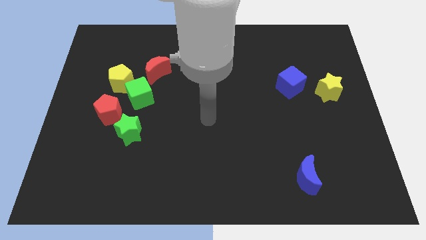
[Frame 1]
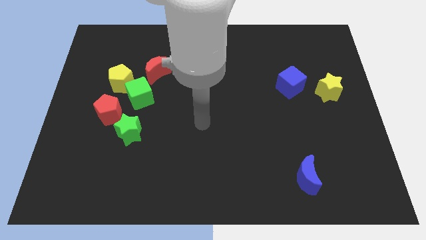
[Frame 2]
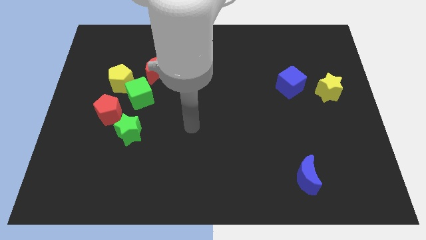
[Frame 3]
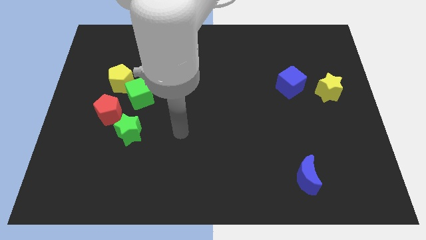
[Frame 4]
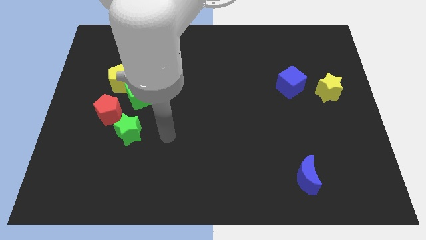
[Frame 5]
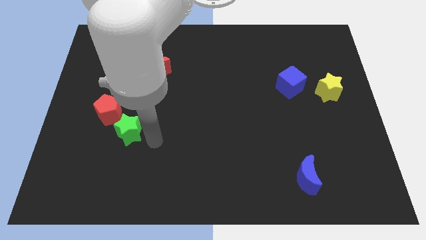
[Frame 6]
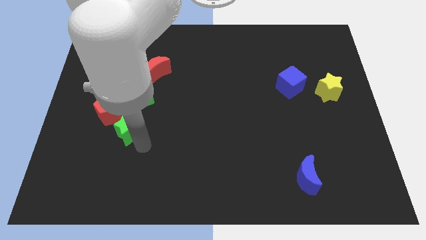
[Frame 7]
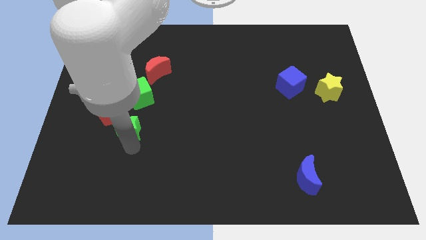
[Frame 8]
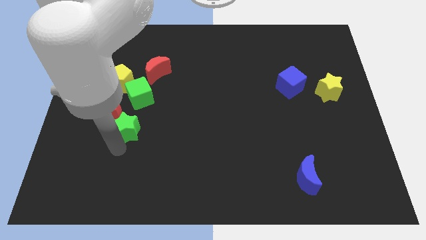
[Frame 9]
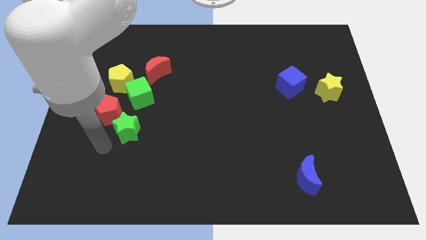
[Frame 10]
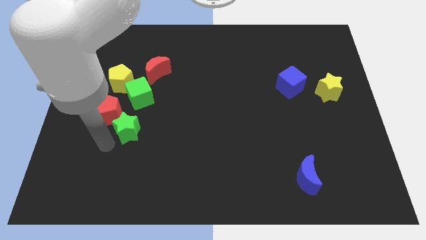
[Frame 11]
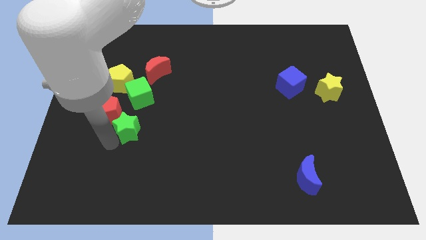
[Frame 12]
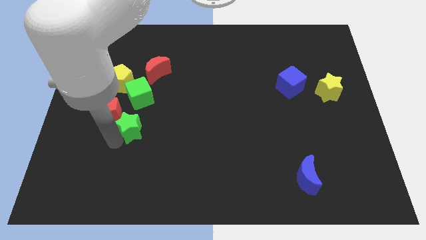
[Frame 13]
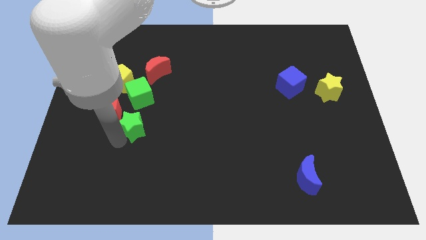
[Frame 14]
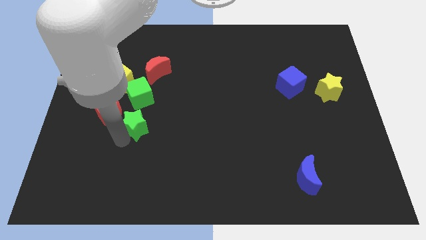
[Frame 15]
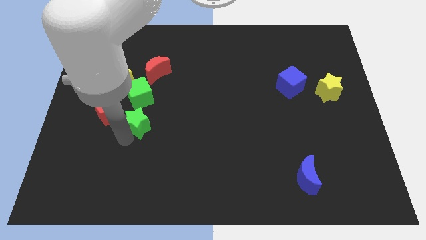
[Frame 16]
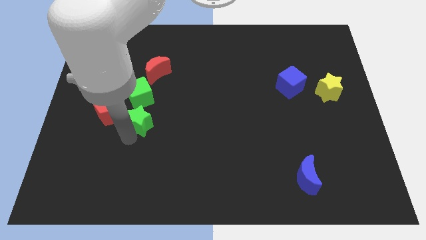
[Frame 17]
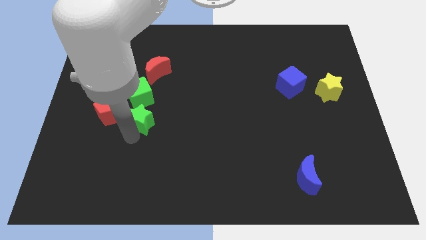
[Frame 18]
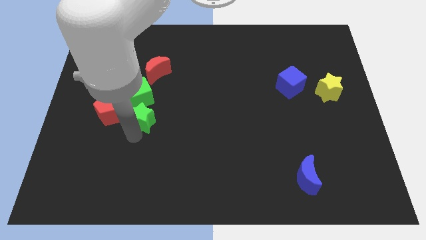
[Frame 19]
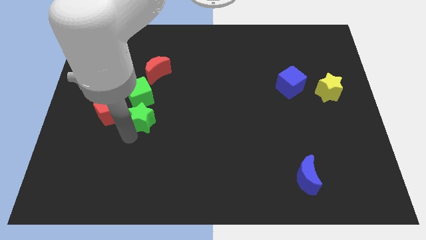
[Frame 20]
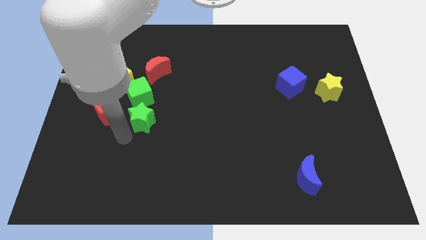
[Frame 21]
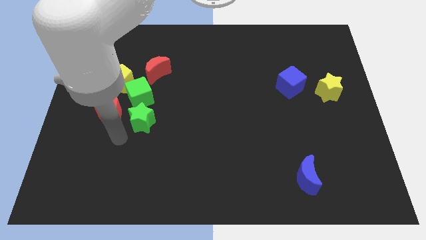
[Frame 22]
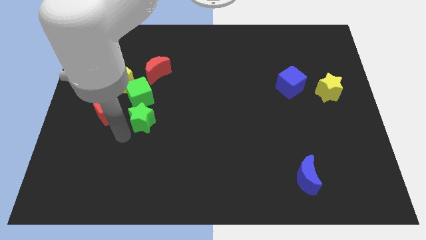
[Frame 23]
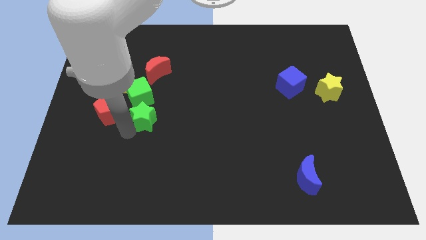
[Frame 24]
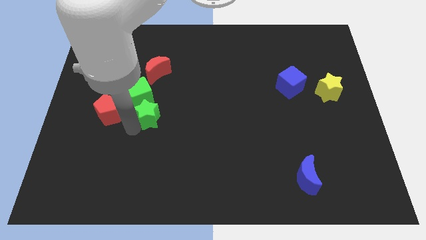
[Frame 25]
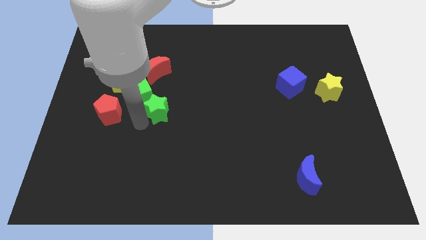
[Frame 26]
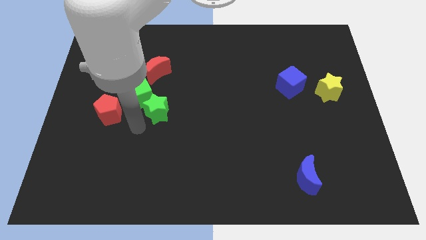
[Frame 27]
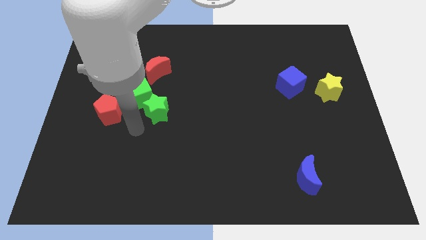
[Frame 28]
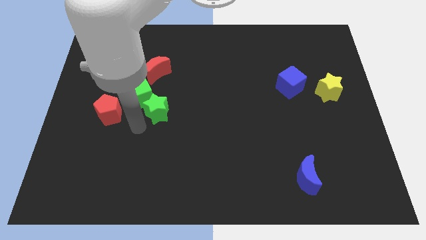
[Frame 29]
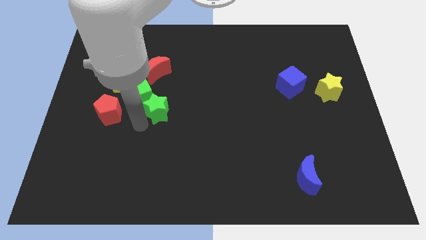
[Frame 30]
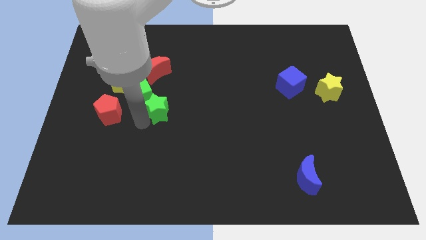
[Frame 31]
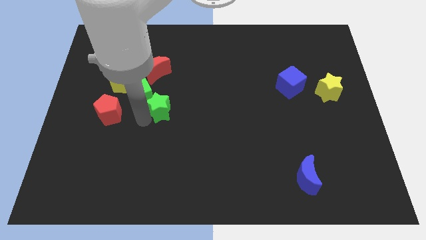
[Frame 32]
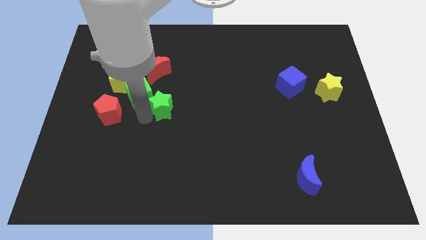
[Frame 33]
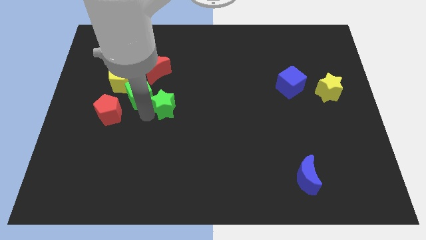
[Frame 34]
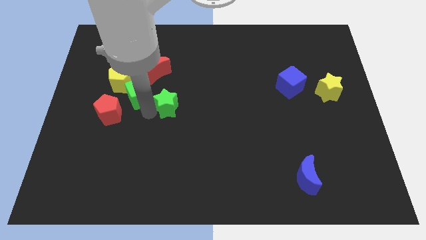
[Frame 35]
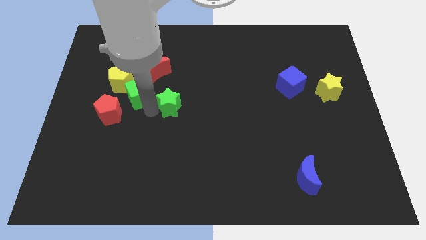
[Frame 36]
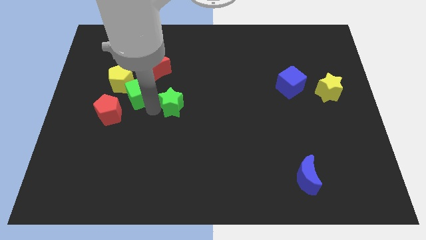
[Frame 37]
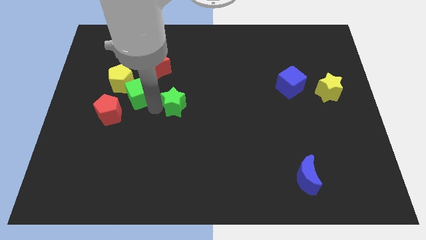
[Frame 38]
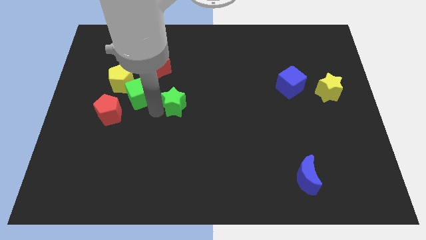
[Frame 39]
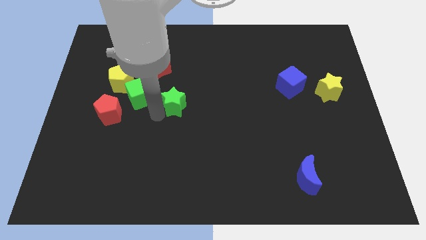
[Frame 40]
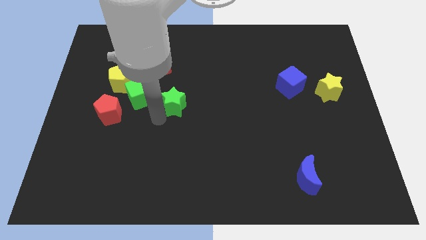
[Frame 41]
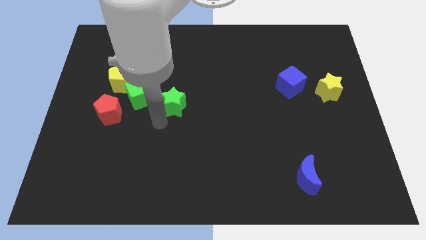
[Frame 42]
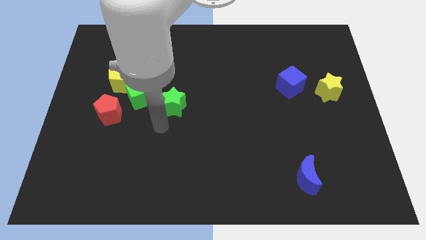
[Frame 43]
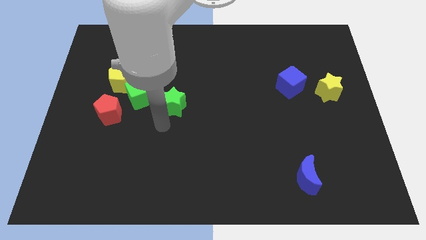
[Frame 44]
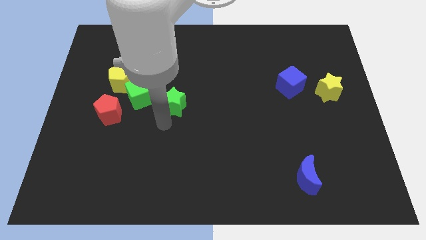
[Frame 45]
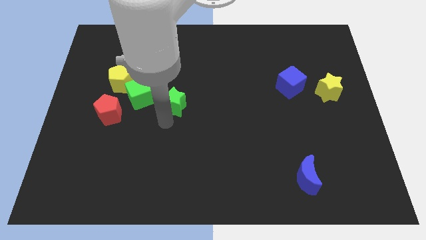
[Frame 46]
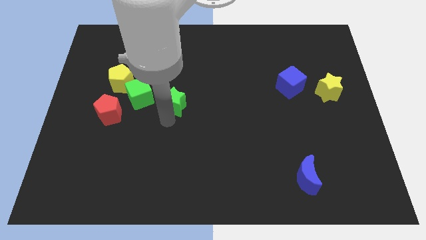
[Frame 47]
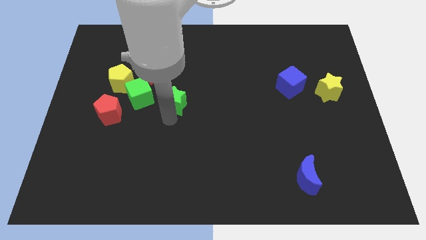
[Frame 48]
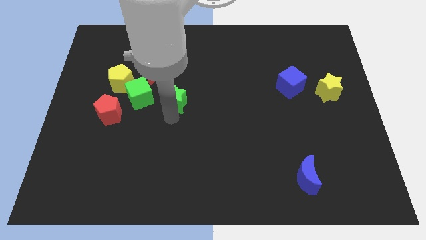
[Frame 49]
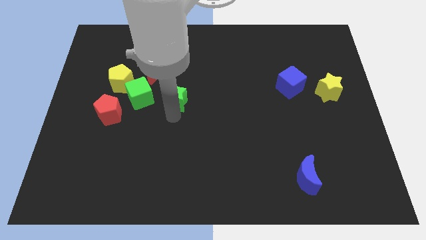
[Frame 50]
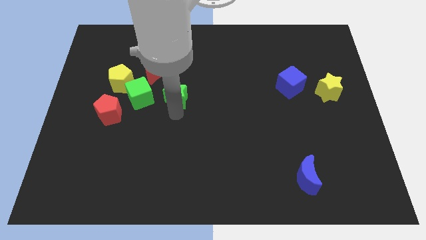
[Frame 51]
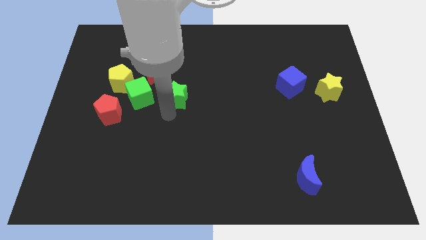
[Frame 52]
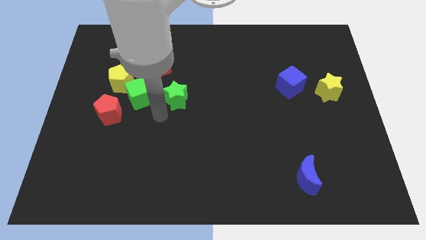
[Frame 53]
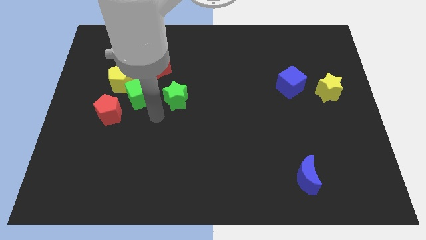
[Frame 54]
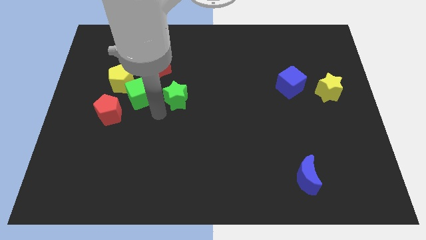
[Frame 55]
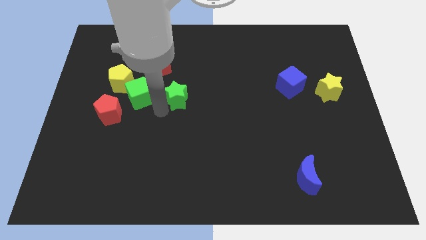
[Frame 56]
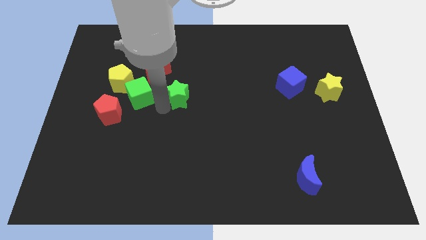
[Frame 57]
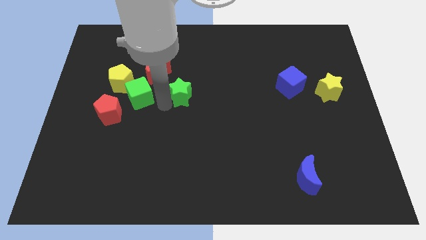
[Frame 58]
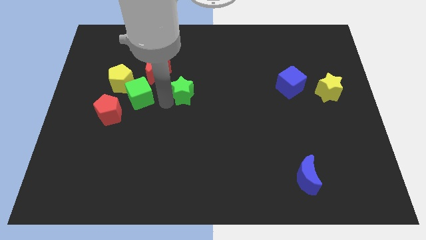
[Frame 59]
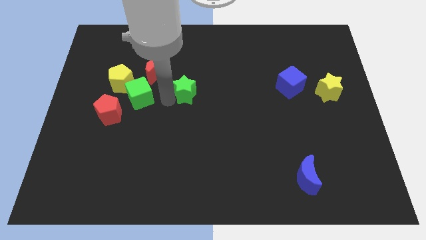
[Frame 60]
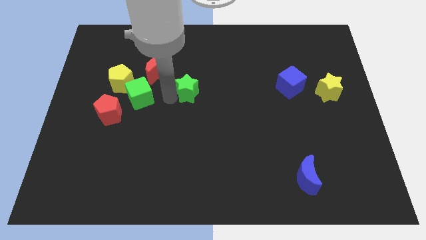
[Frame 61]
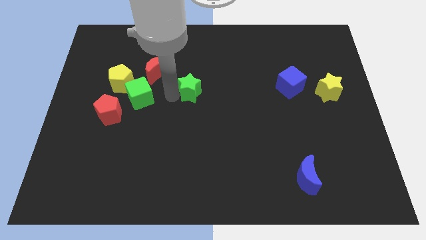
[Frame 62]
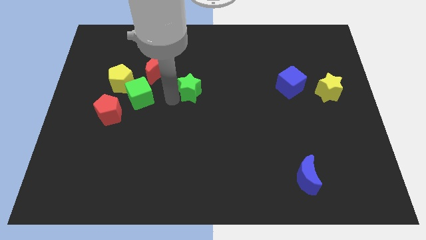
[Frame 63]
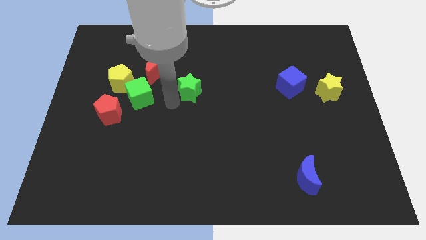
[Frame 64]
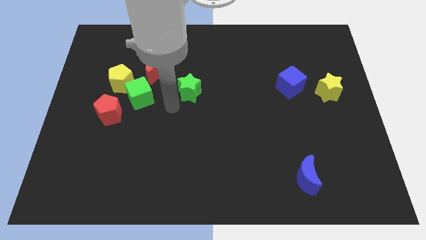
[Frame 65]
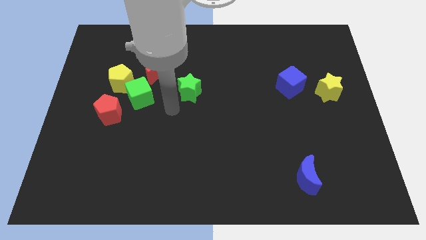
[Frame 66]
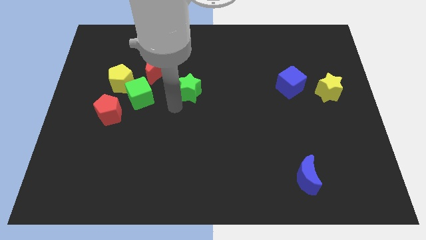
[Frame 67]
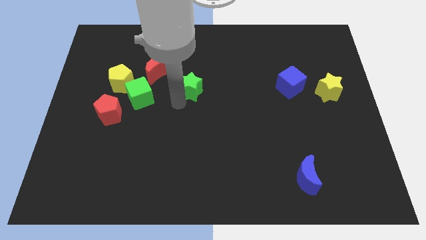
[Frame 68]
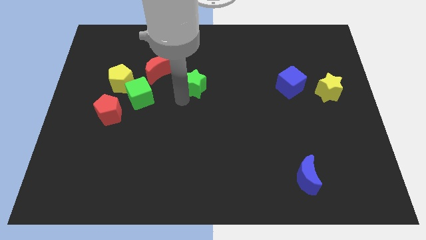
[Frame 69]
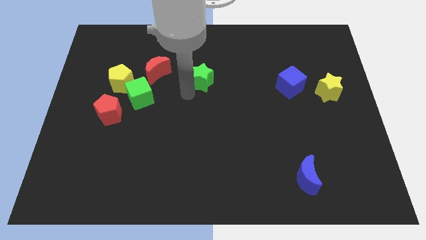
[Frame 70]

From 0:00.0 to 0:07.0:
push the green star up and then right

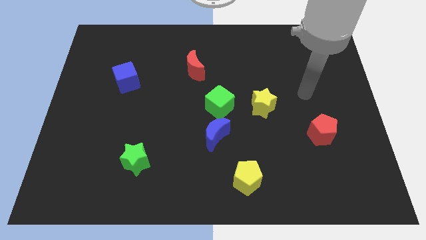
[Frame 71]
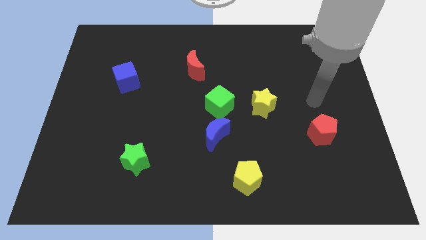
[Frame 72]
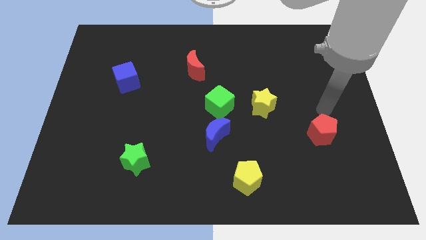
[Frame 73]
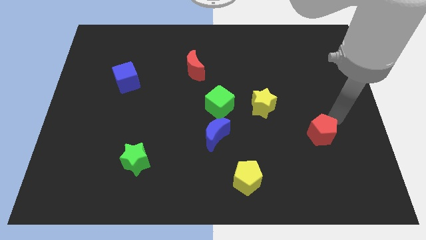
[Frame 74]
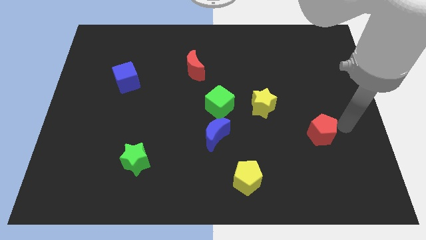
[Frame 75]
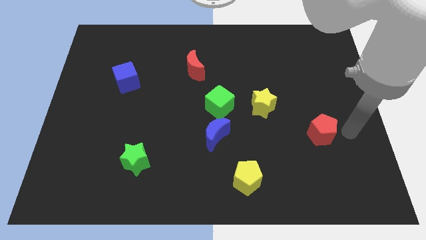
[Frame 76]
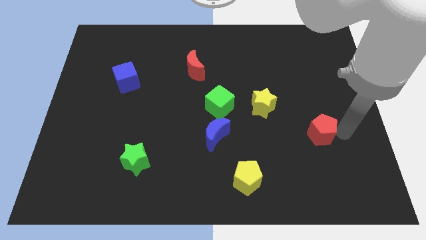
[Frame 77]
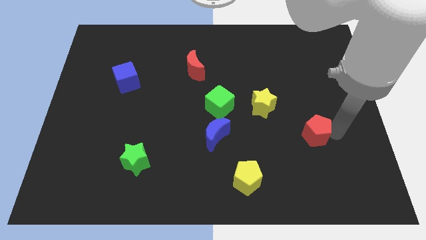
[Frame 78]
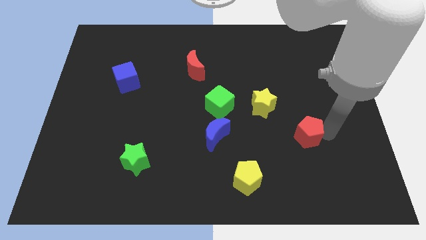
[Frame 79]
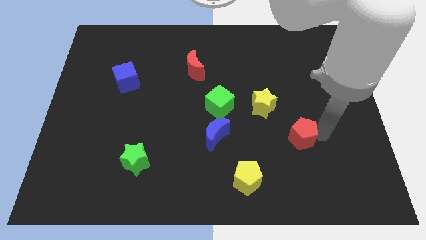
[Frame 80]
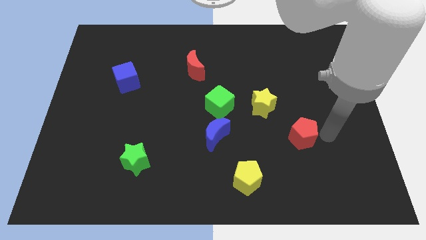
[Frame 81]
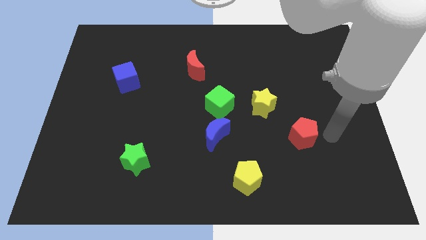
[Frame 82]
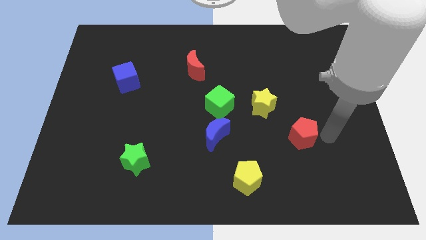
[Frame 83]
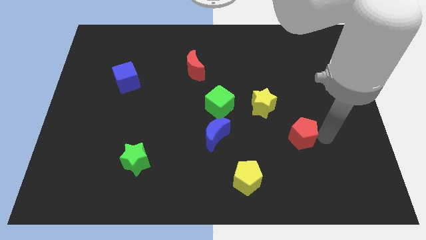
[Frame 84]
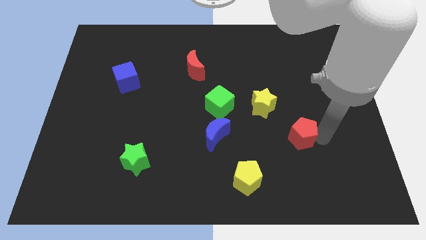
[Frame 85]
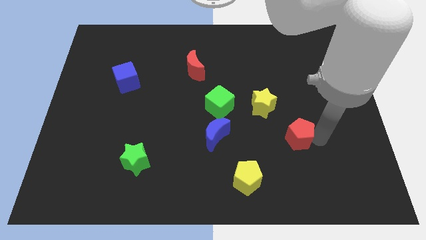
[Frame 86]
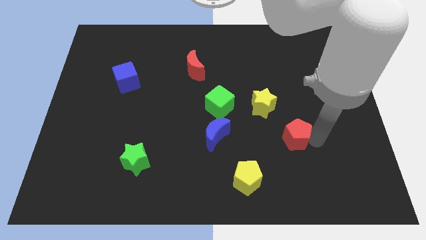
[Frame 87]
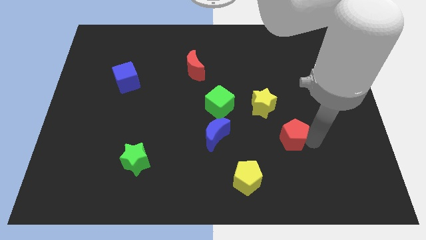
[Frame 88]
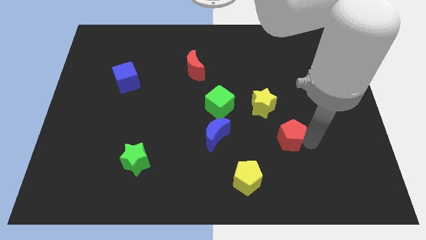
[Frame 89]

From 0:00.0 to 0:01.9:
slide the red pentagon left a little bit
